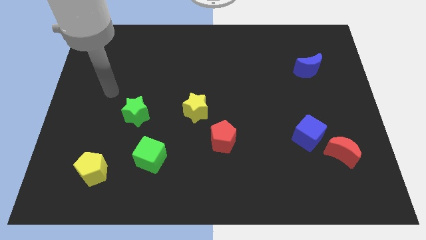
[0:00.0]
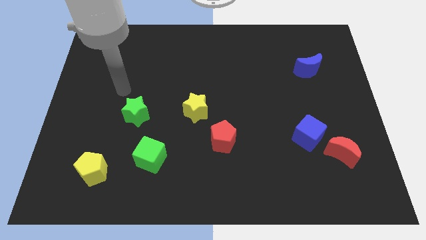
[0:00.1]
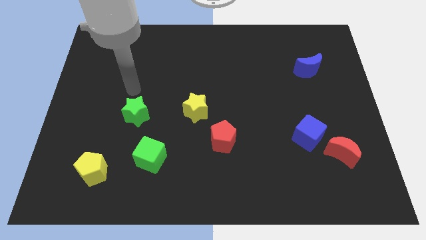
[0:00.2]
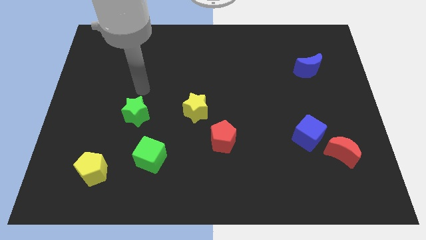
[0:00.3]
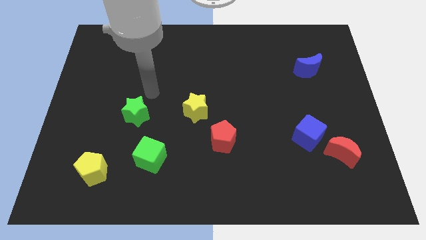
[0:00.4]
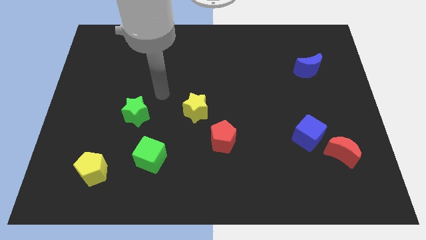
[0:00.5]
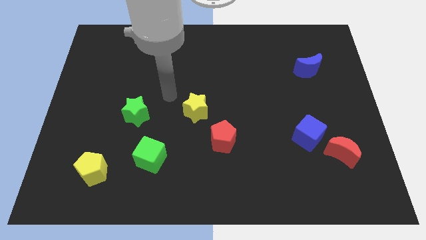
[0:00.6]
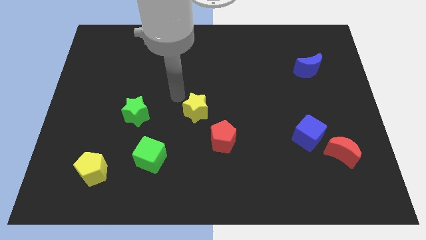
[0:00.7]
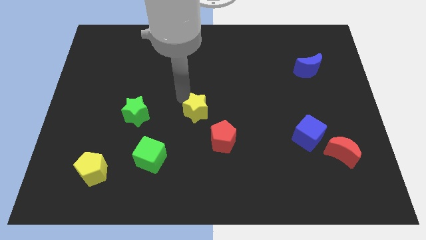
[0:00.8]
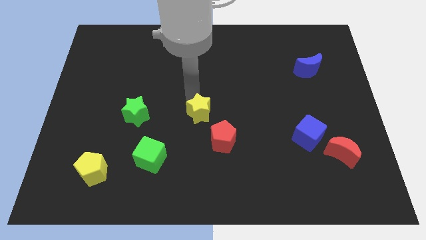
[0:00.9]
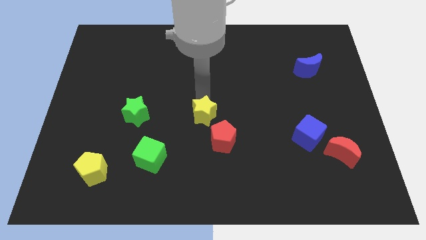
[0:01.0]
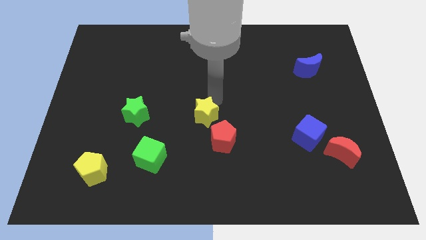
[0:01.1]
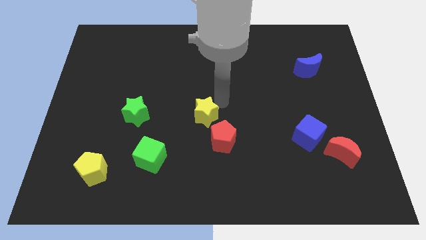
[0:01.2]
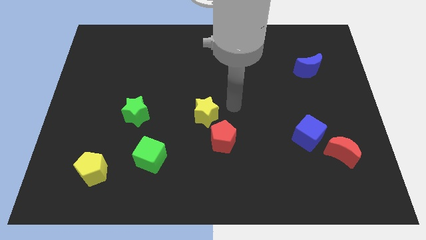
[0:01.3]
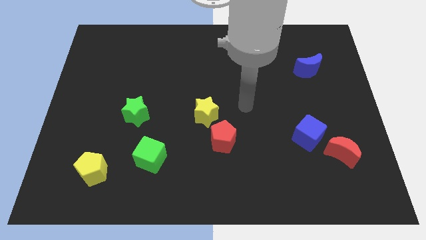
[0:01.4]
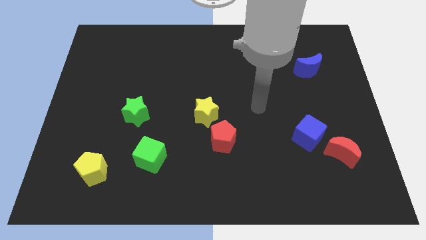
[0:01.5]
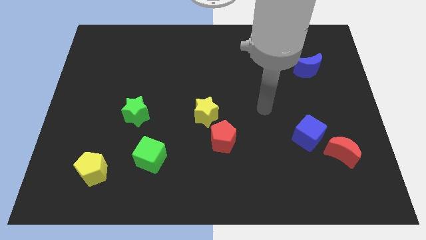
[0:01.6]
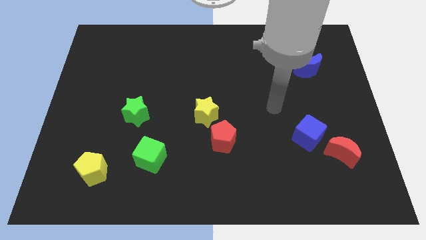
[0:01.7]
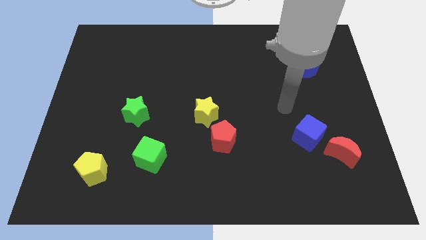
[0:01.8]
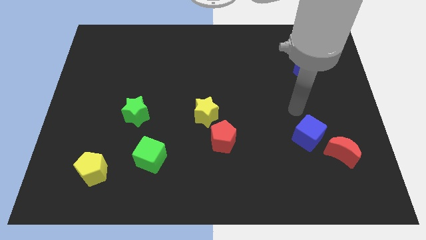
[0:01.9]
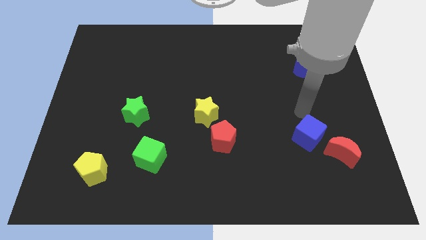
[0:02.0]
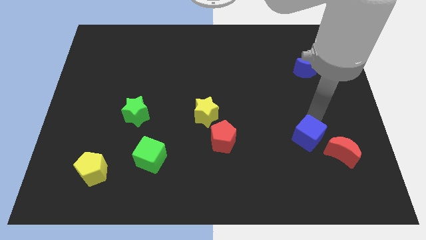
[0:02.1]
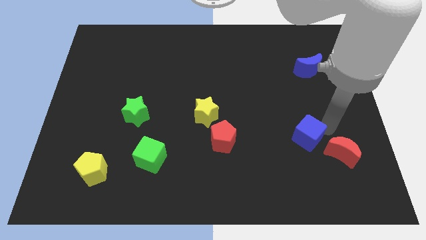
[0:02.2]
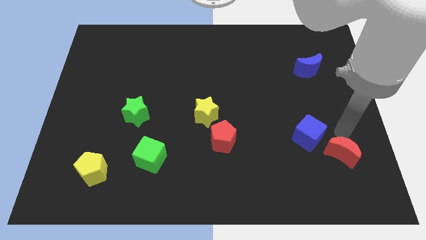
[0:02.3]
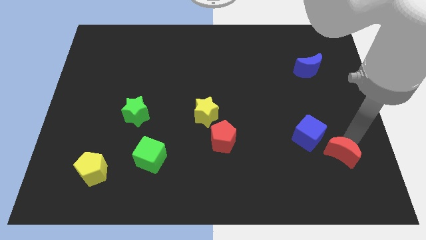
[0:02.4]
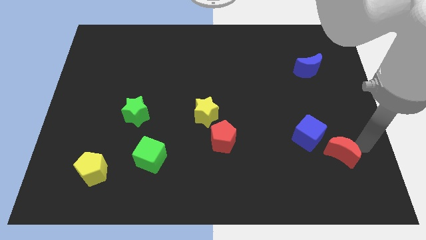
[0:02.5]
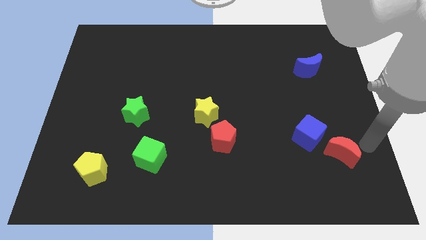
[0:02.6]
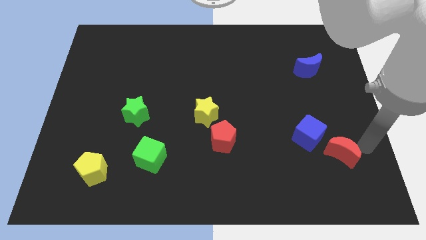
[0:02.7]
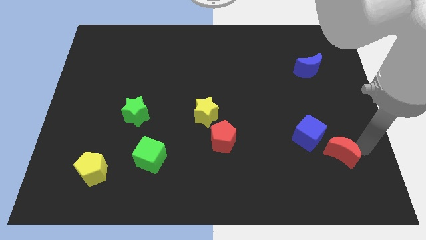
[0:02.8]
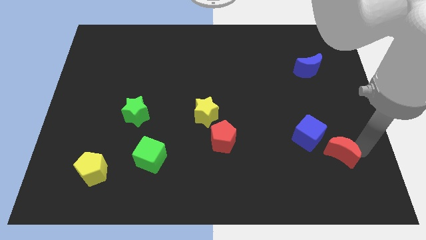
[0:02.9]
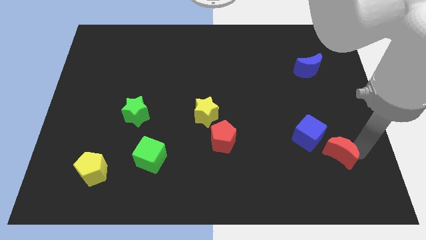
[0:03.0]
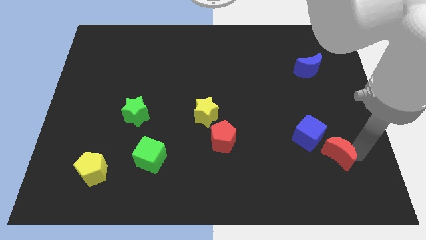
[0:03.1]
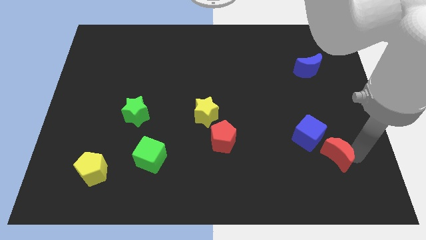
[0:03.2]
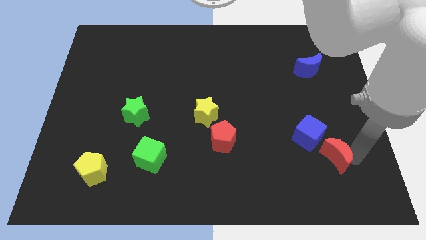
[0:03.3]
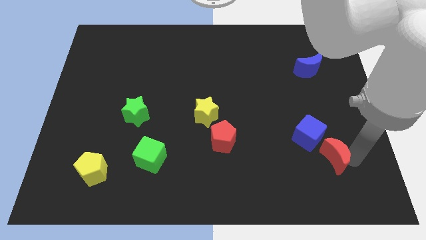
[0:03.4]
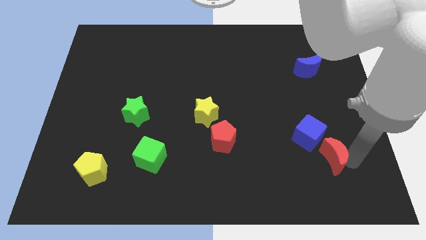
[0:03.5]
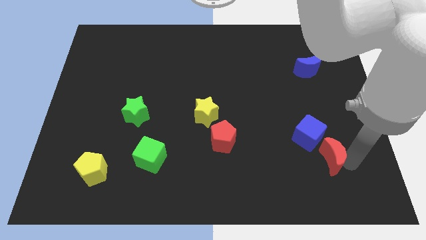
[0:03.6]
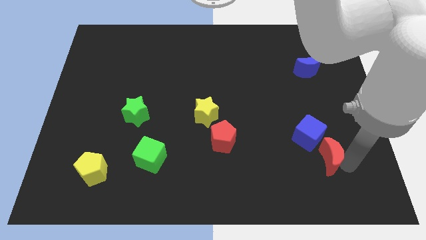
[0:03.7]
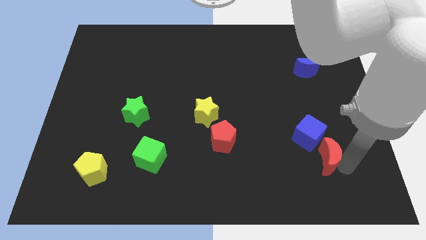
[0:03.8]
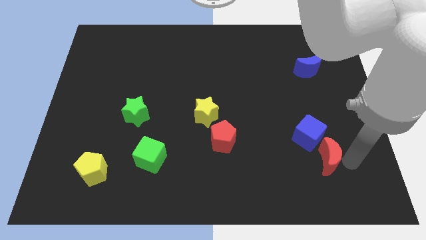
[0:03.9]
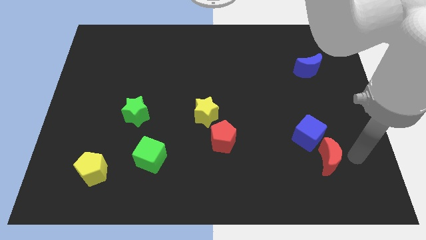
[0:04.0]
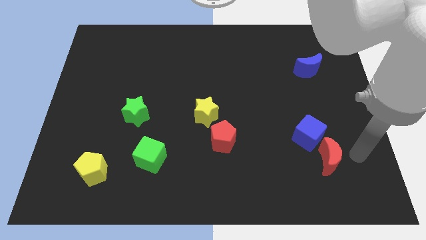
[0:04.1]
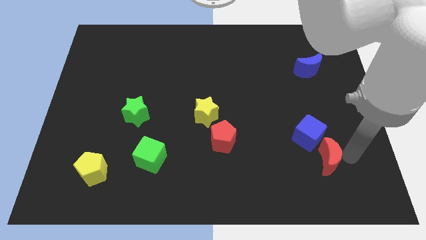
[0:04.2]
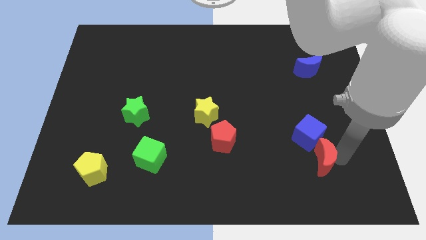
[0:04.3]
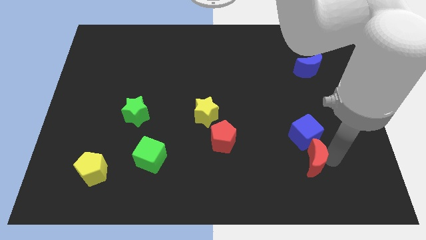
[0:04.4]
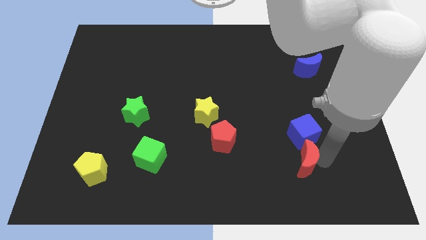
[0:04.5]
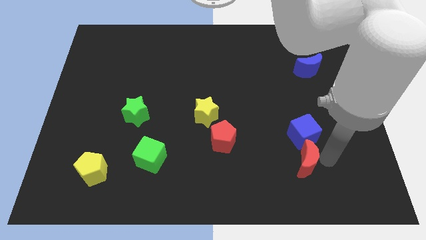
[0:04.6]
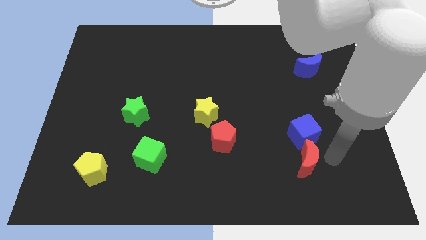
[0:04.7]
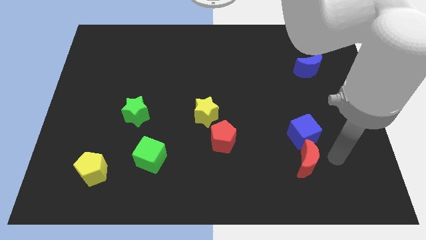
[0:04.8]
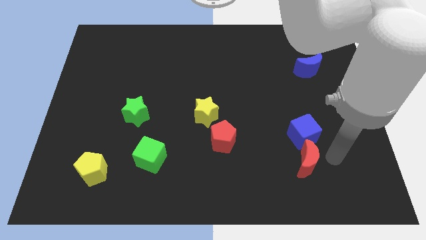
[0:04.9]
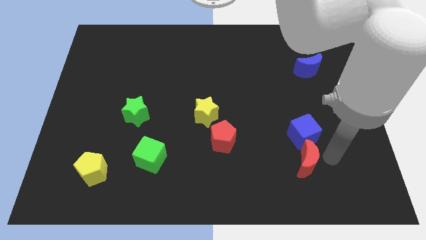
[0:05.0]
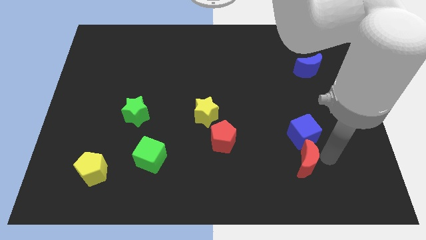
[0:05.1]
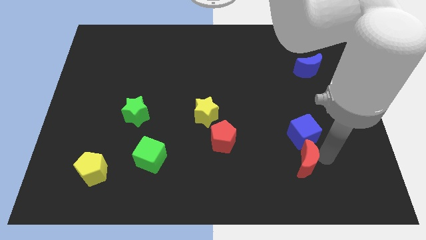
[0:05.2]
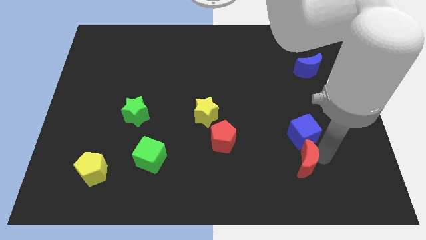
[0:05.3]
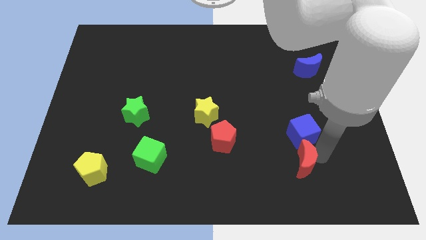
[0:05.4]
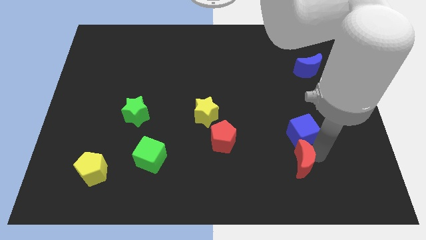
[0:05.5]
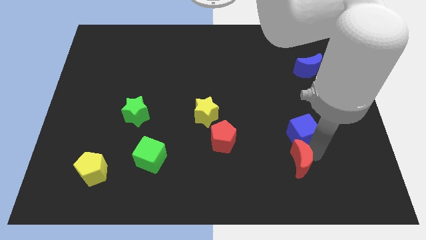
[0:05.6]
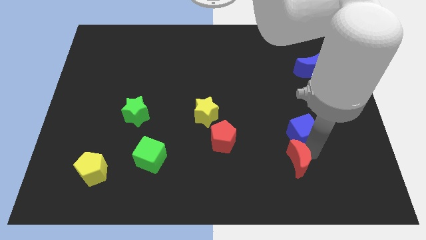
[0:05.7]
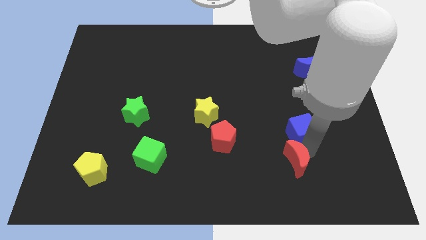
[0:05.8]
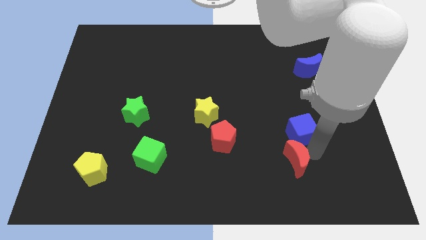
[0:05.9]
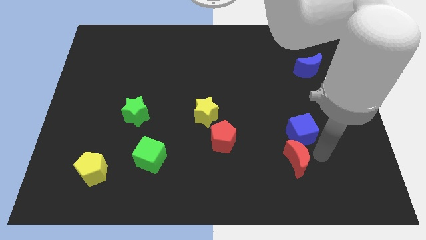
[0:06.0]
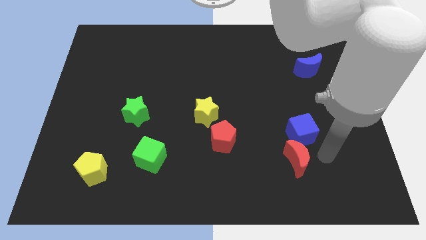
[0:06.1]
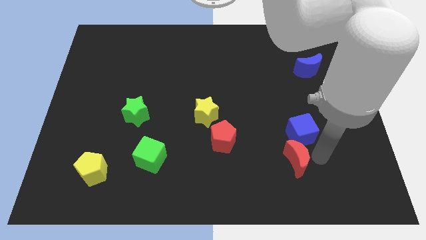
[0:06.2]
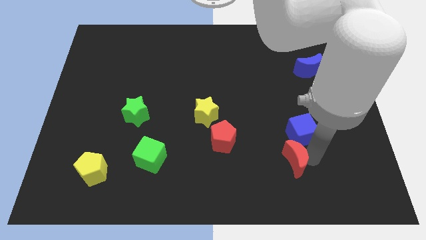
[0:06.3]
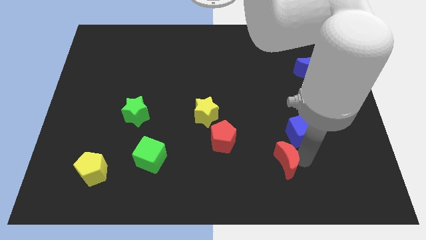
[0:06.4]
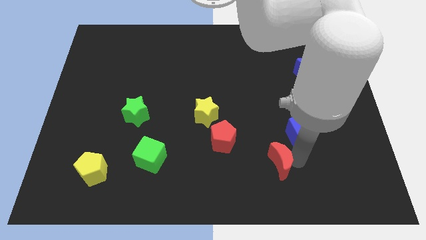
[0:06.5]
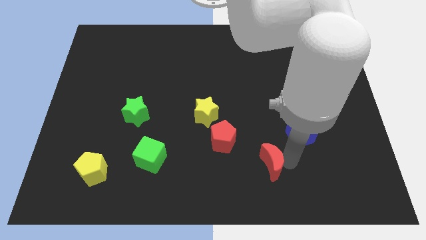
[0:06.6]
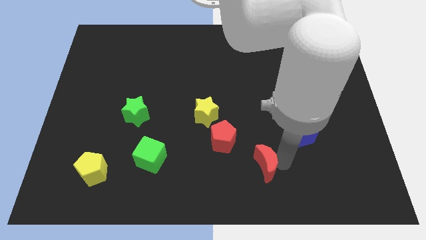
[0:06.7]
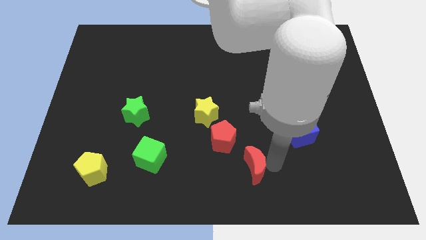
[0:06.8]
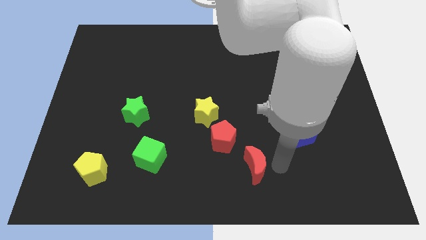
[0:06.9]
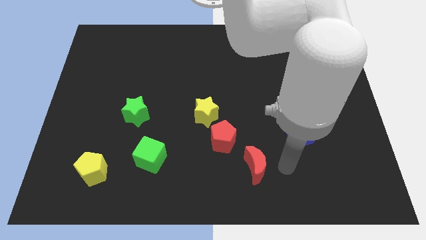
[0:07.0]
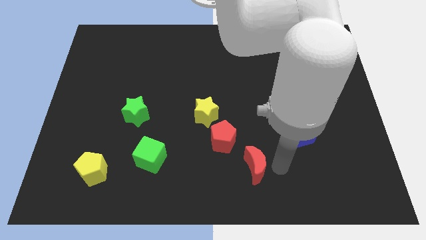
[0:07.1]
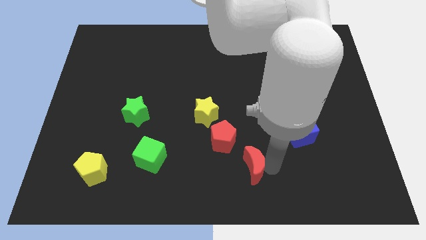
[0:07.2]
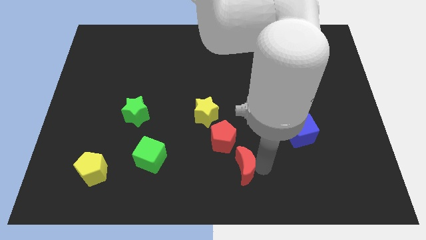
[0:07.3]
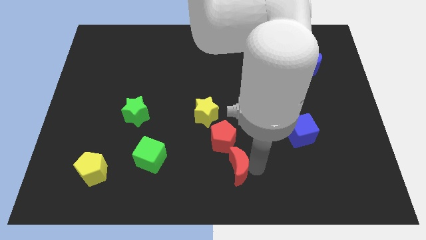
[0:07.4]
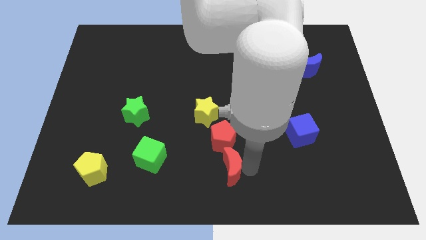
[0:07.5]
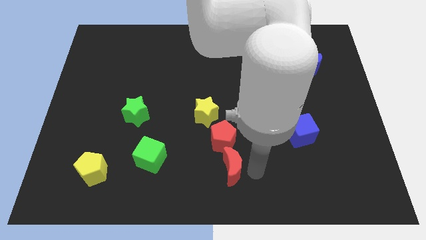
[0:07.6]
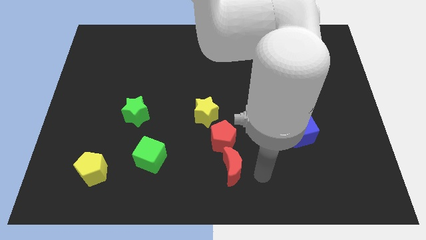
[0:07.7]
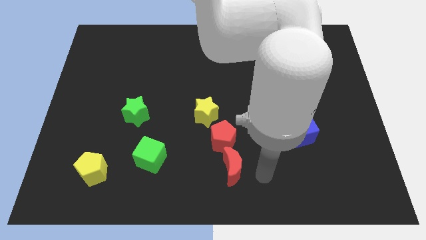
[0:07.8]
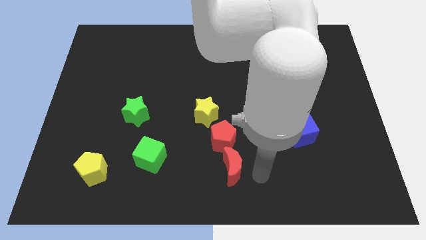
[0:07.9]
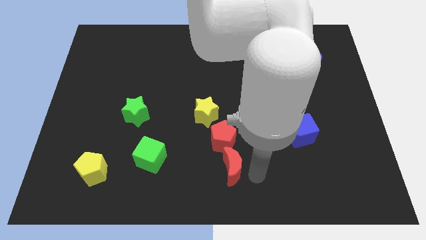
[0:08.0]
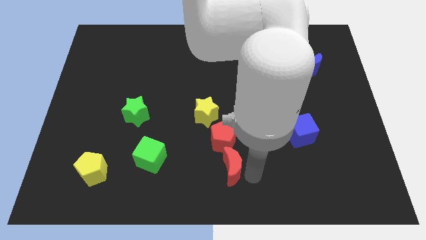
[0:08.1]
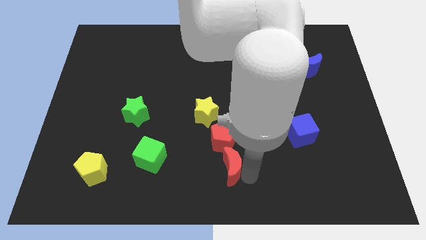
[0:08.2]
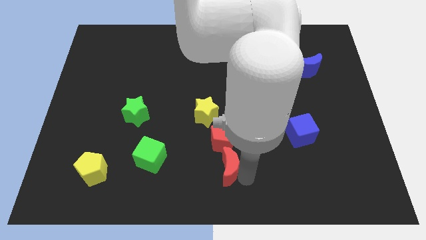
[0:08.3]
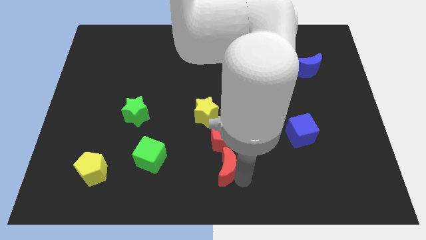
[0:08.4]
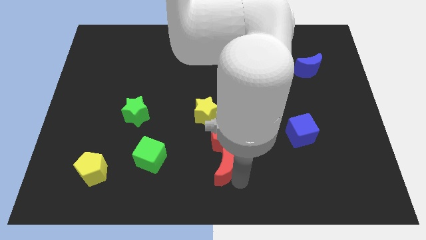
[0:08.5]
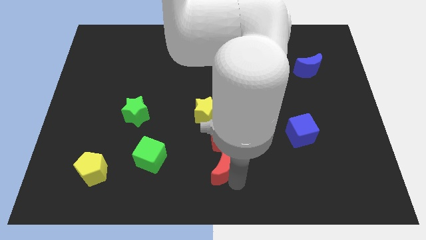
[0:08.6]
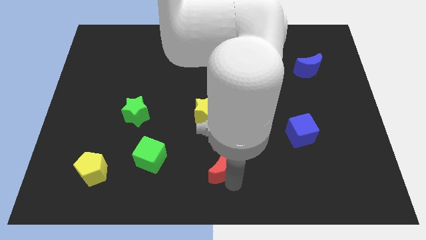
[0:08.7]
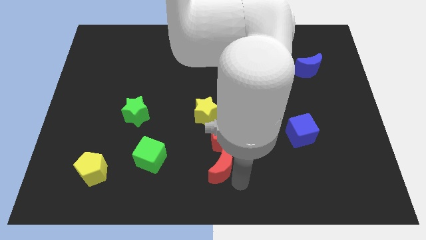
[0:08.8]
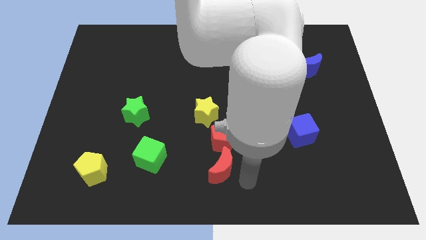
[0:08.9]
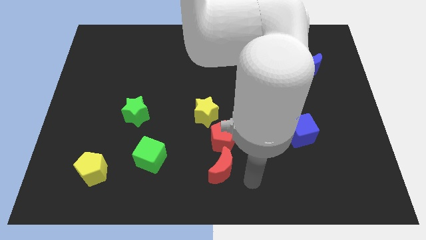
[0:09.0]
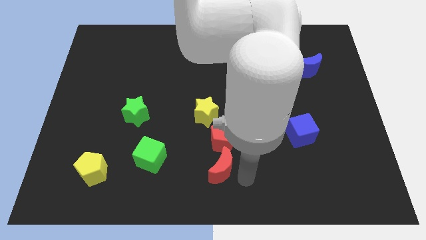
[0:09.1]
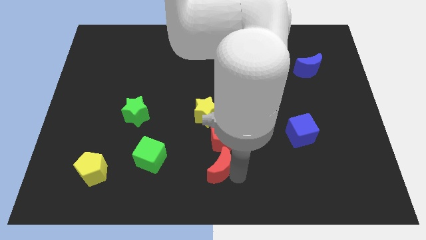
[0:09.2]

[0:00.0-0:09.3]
put the red moon to the bottom left of the red pentagon
